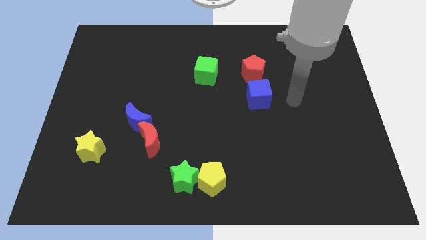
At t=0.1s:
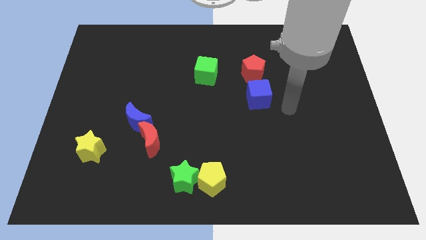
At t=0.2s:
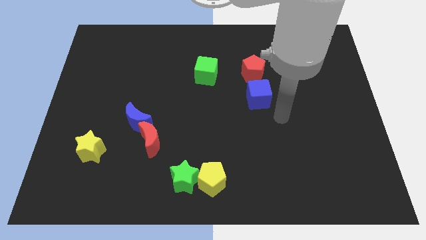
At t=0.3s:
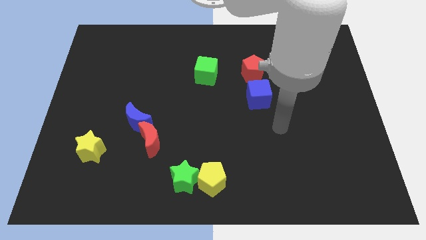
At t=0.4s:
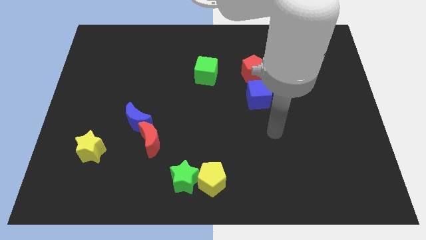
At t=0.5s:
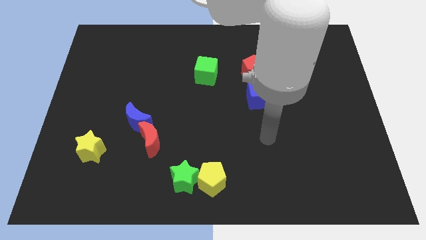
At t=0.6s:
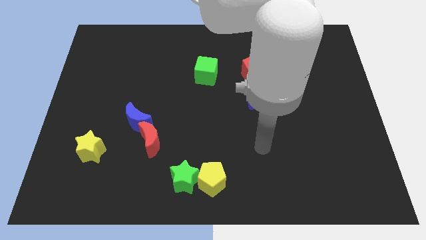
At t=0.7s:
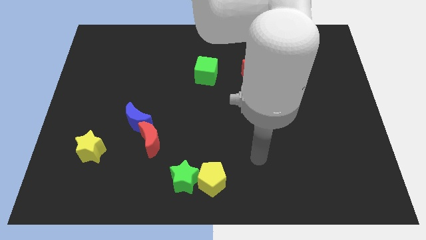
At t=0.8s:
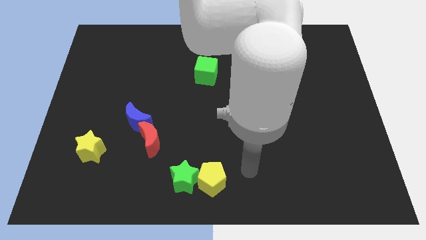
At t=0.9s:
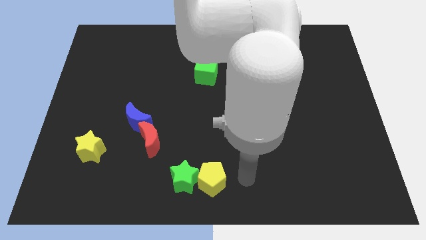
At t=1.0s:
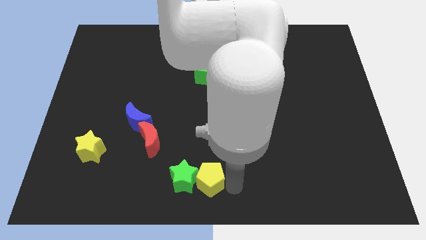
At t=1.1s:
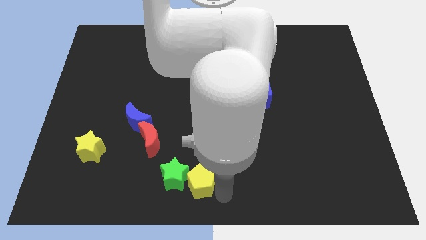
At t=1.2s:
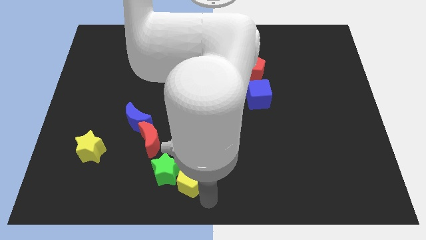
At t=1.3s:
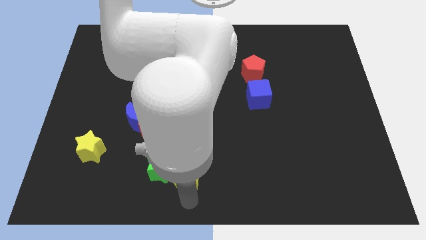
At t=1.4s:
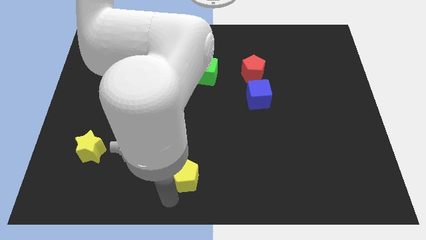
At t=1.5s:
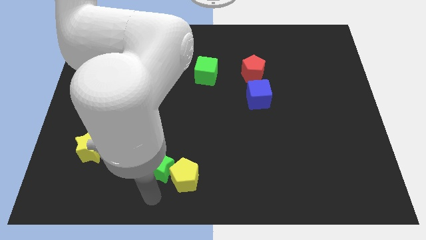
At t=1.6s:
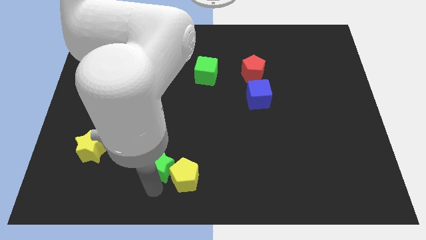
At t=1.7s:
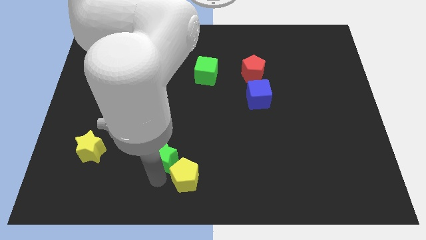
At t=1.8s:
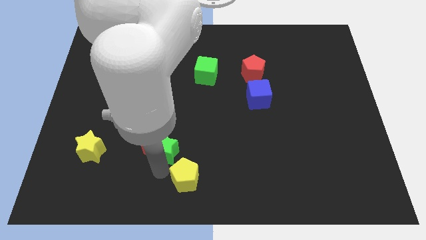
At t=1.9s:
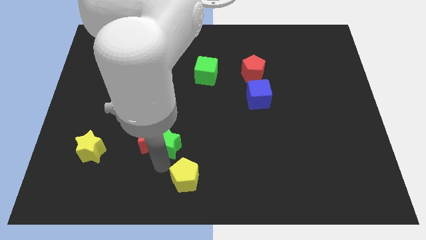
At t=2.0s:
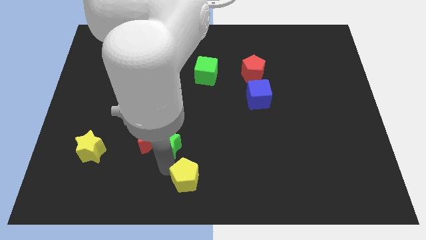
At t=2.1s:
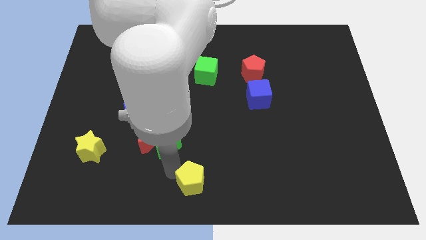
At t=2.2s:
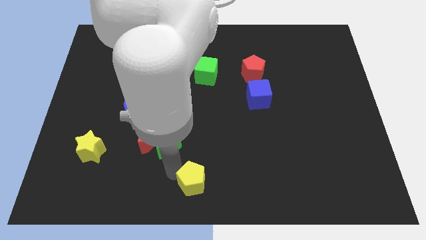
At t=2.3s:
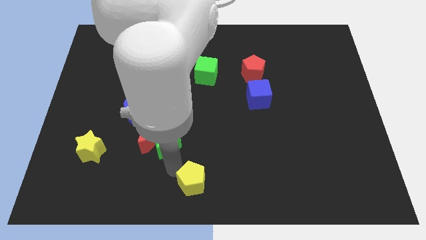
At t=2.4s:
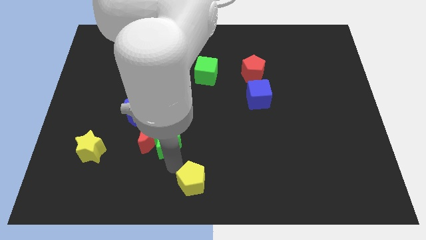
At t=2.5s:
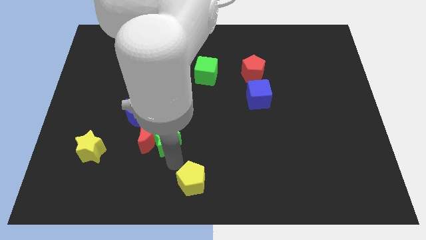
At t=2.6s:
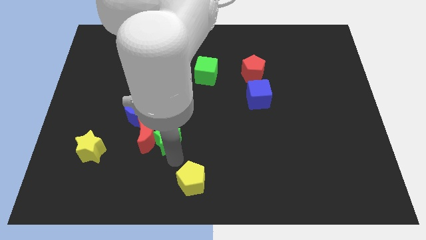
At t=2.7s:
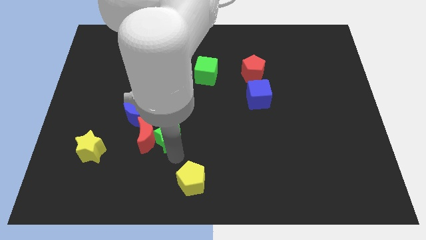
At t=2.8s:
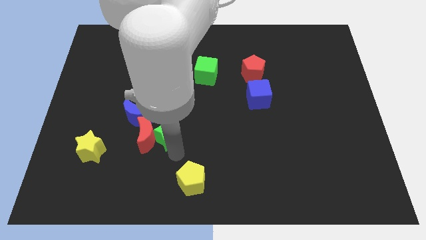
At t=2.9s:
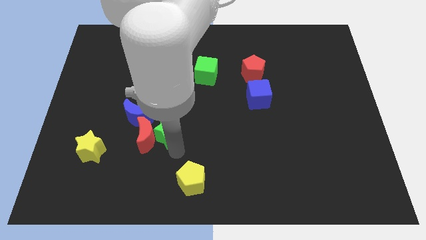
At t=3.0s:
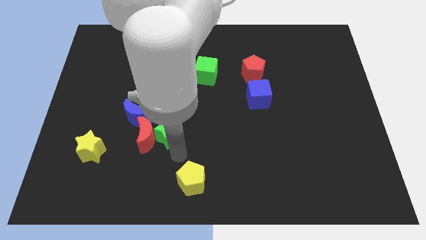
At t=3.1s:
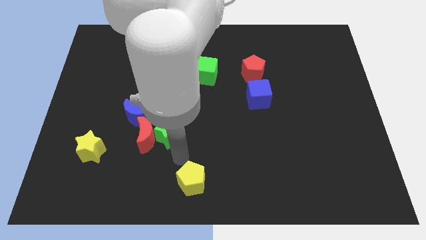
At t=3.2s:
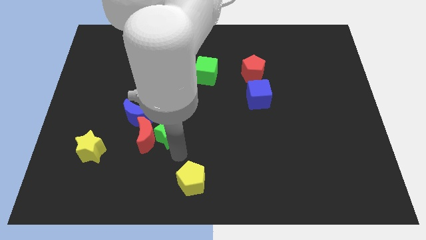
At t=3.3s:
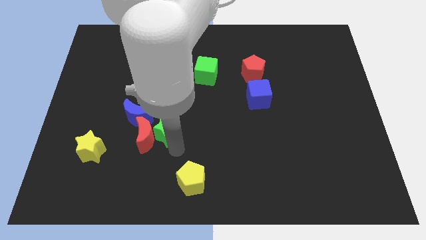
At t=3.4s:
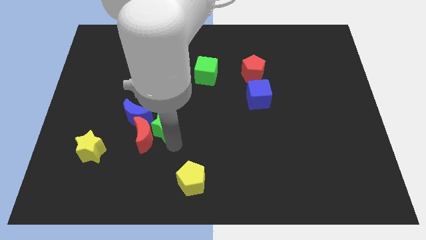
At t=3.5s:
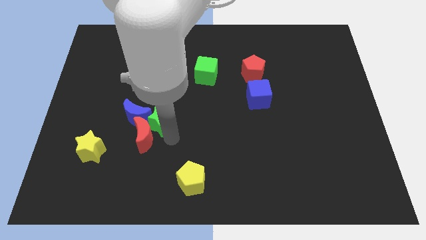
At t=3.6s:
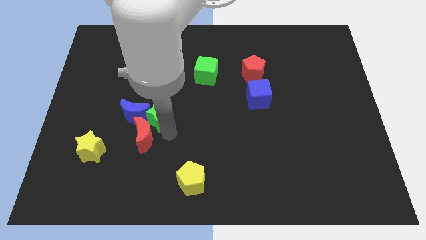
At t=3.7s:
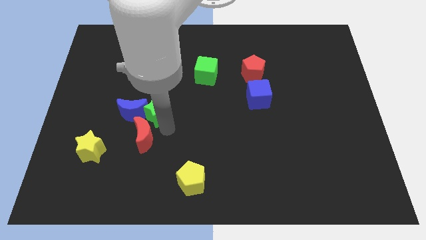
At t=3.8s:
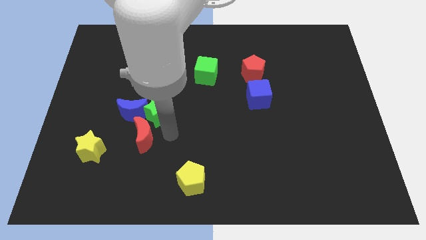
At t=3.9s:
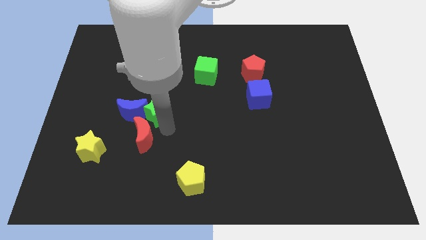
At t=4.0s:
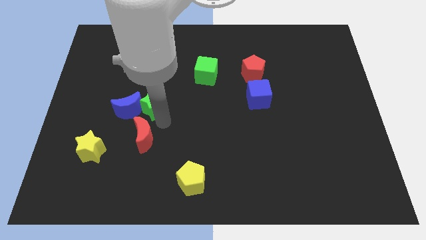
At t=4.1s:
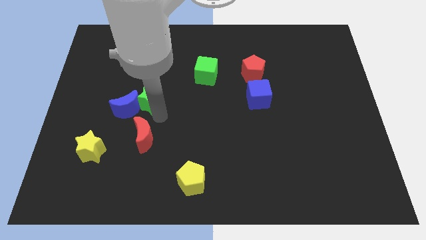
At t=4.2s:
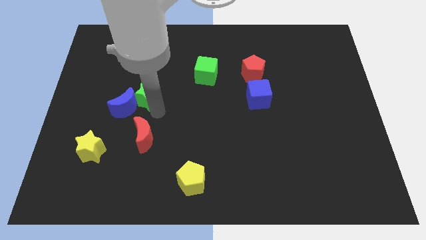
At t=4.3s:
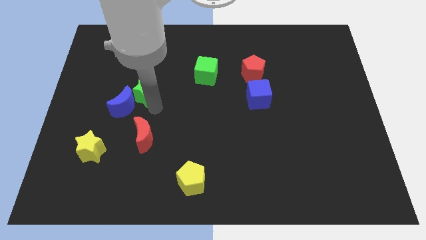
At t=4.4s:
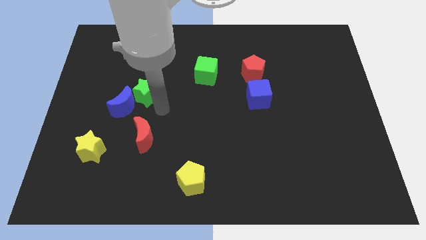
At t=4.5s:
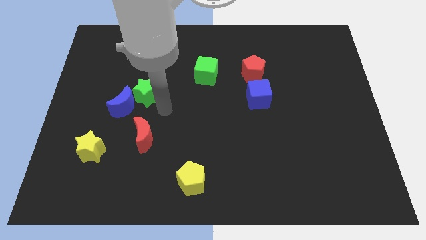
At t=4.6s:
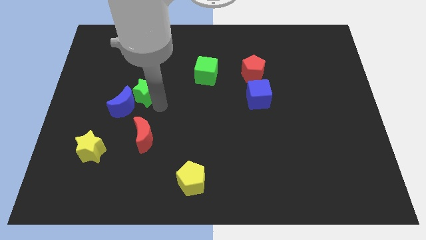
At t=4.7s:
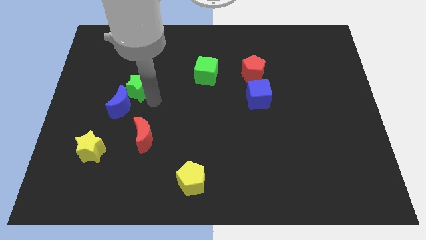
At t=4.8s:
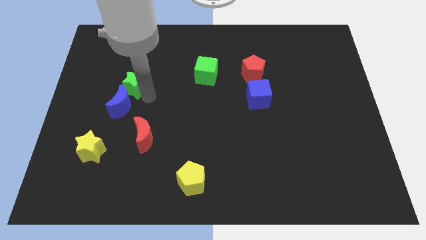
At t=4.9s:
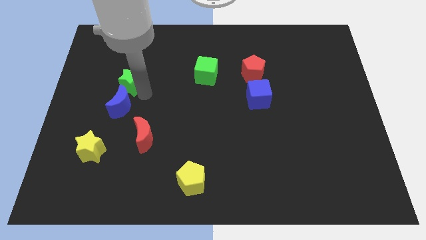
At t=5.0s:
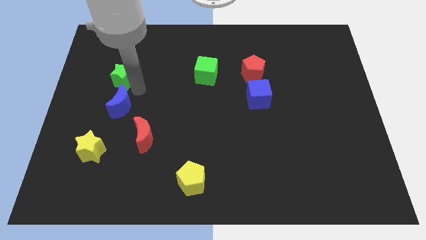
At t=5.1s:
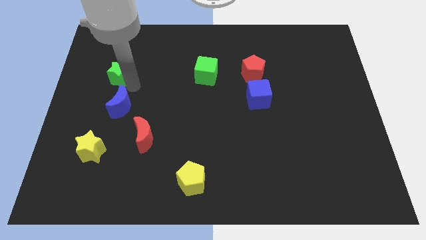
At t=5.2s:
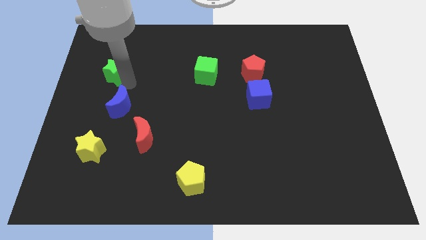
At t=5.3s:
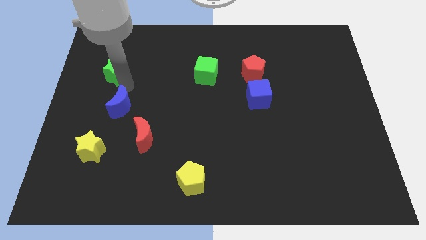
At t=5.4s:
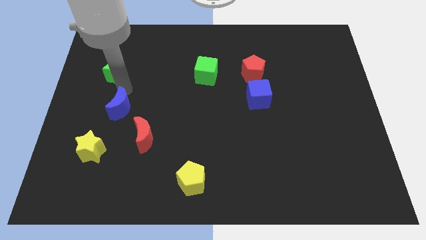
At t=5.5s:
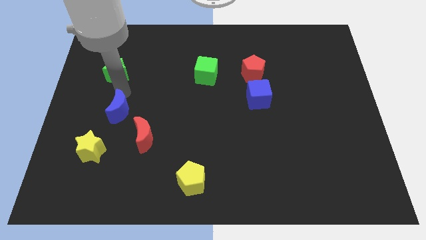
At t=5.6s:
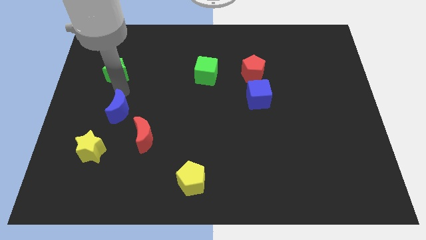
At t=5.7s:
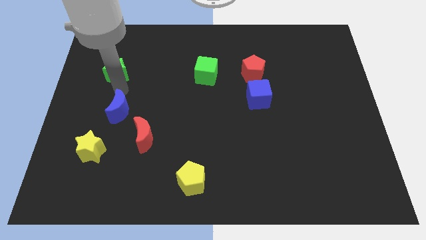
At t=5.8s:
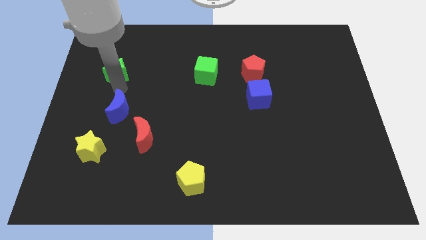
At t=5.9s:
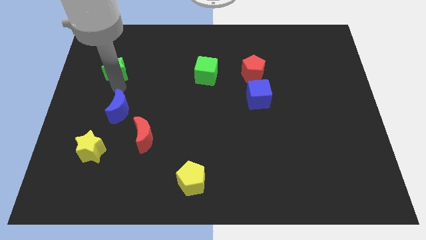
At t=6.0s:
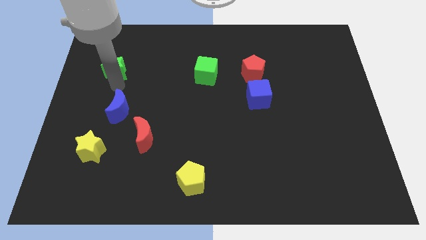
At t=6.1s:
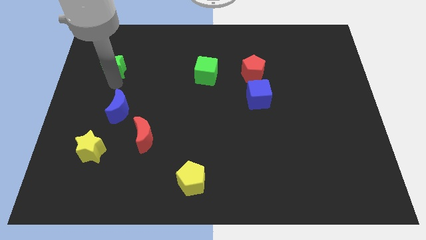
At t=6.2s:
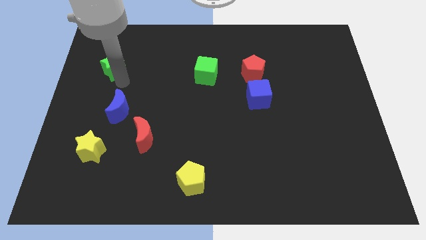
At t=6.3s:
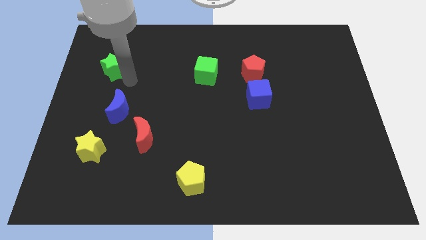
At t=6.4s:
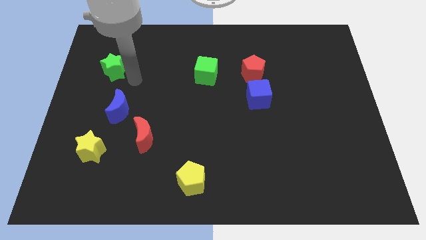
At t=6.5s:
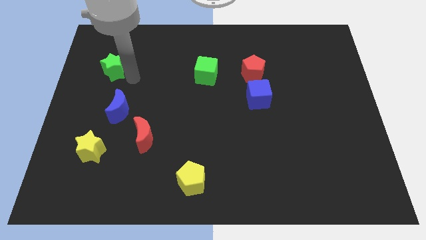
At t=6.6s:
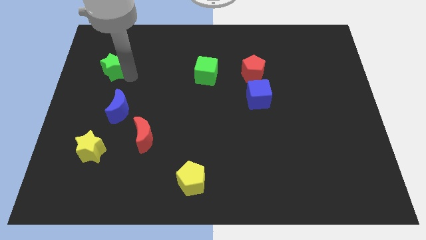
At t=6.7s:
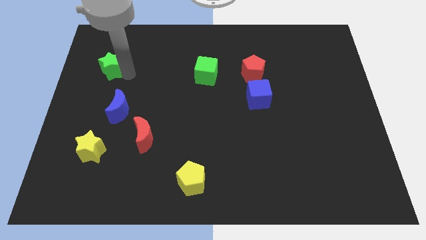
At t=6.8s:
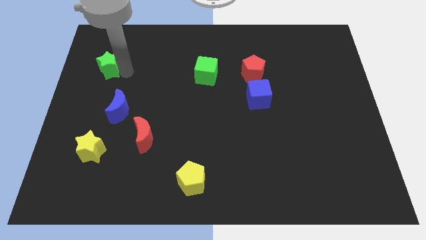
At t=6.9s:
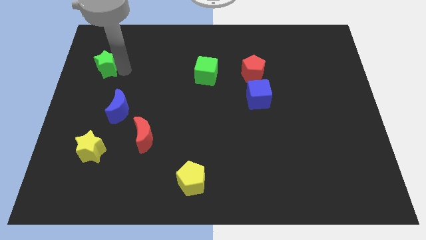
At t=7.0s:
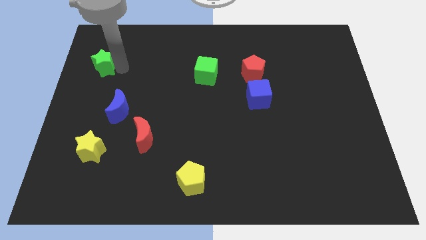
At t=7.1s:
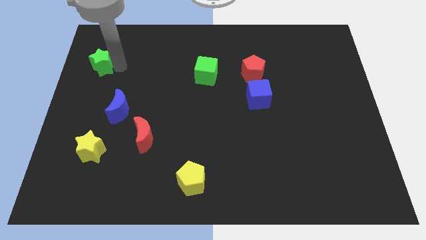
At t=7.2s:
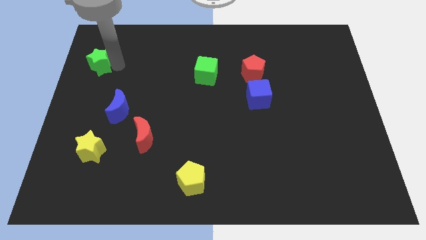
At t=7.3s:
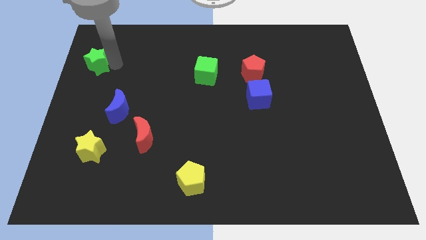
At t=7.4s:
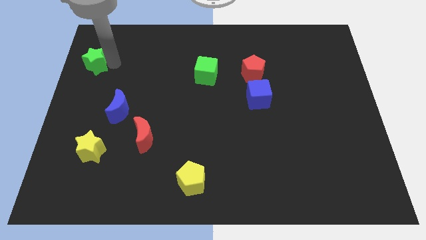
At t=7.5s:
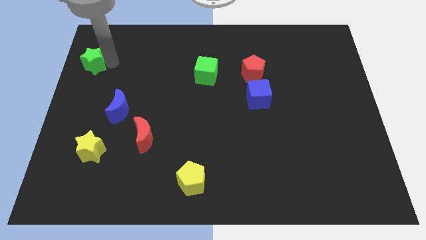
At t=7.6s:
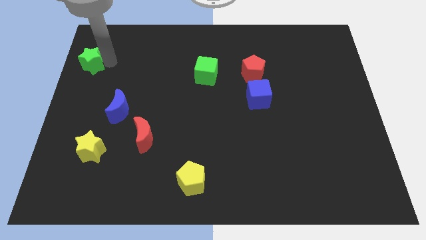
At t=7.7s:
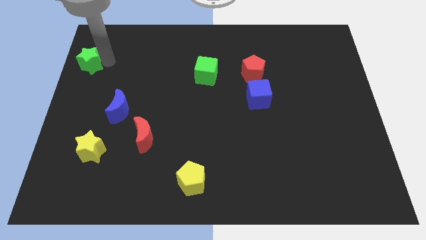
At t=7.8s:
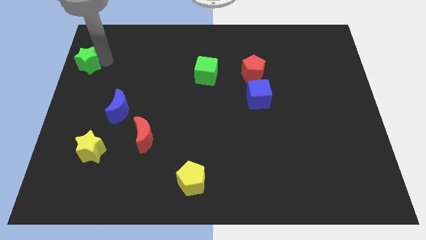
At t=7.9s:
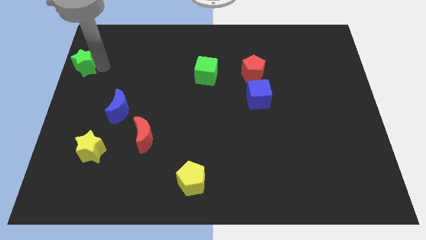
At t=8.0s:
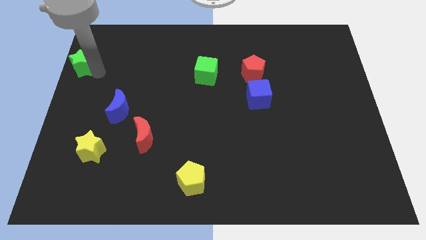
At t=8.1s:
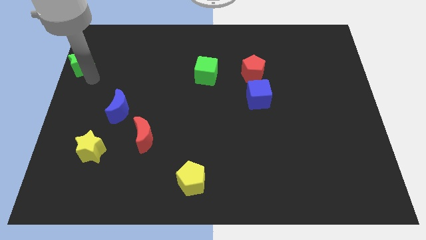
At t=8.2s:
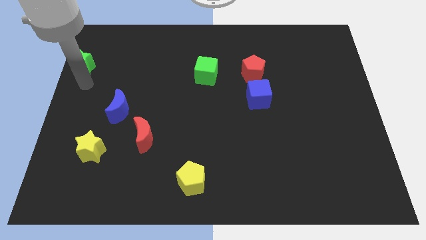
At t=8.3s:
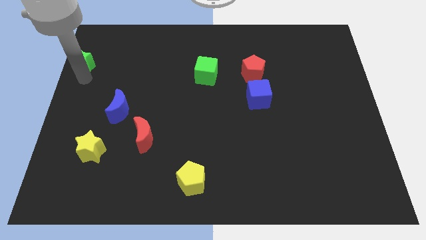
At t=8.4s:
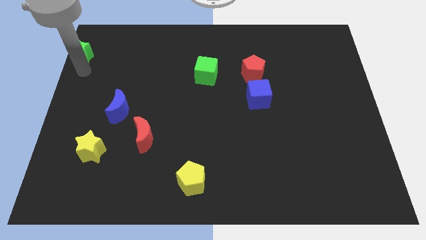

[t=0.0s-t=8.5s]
push the green star to the upper left corner

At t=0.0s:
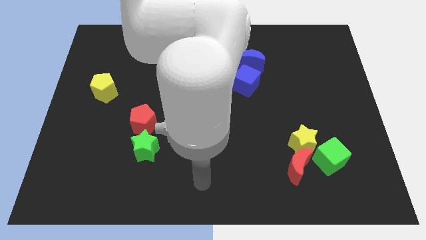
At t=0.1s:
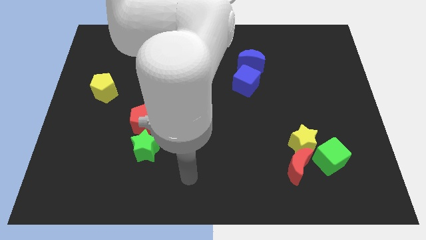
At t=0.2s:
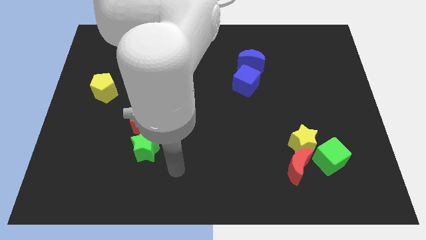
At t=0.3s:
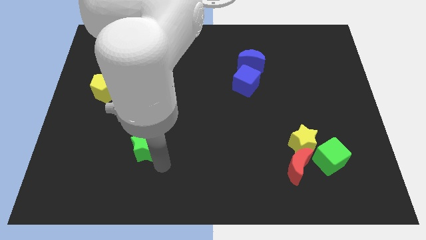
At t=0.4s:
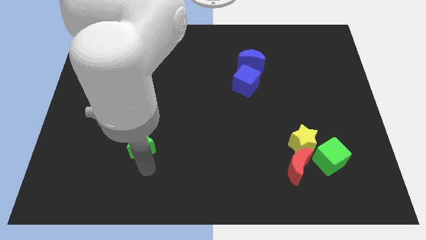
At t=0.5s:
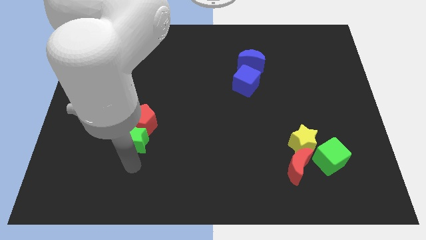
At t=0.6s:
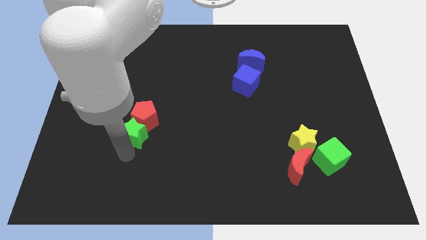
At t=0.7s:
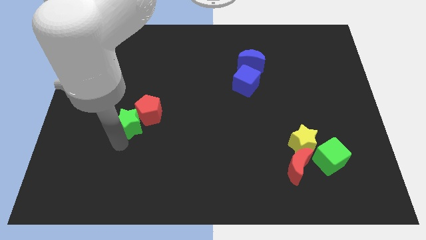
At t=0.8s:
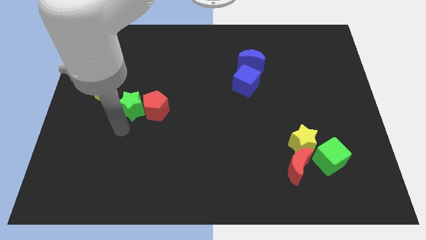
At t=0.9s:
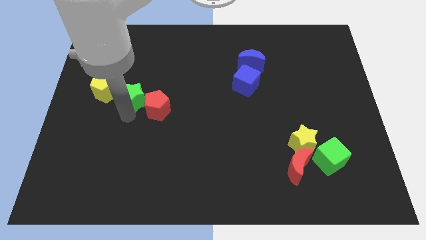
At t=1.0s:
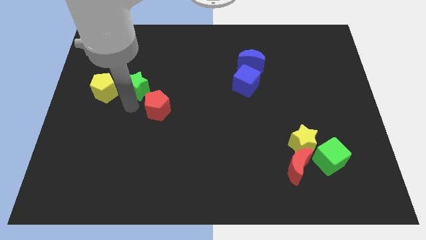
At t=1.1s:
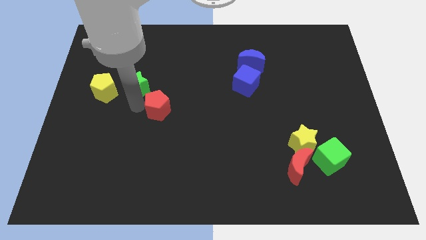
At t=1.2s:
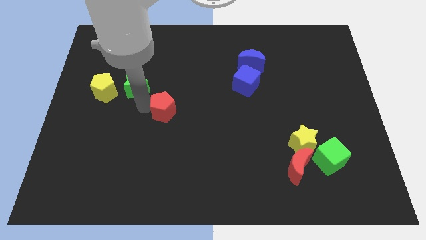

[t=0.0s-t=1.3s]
slide the red pentagon to the middle of the board
